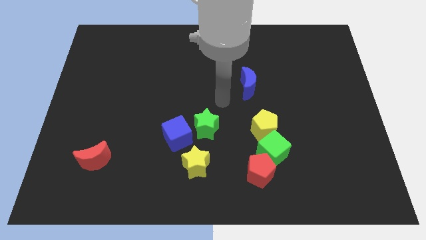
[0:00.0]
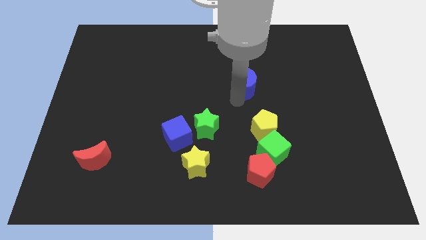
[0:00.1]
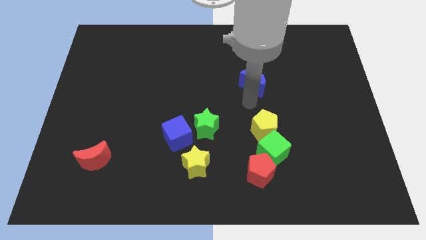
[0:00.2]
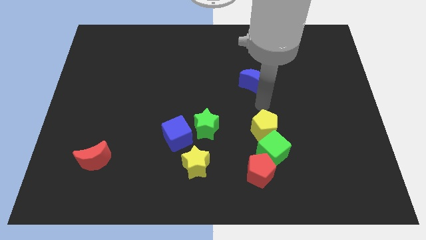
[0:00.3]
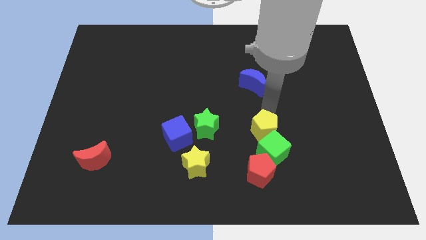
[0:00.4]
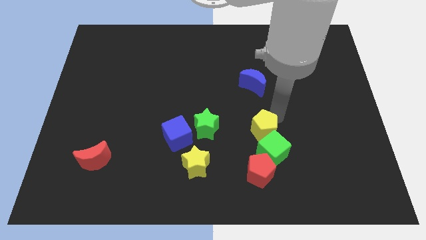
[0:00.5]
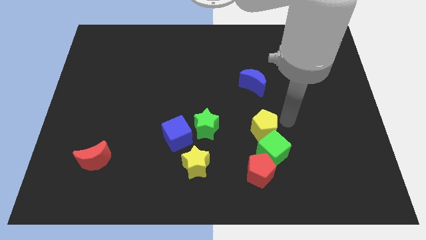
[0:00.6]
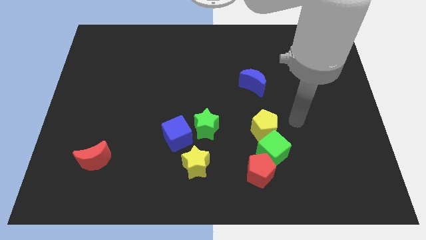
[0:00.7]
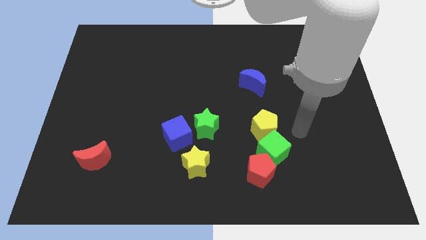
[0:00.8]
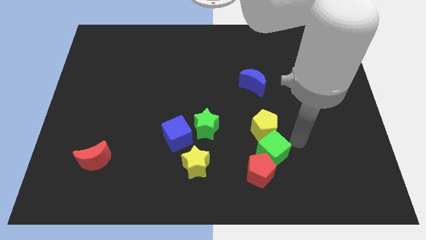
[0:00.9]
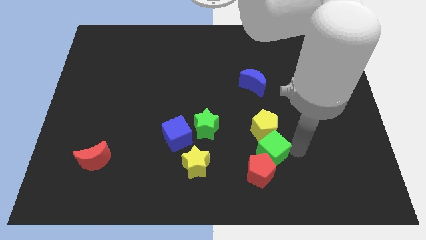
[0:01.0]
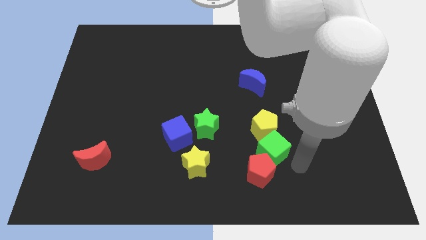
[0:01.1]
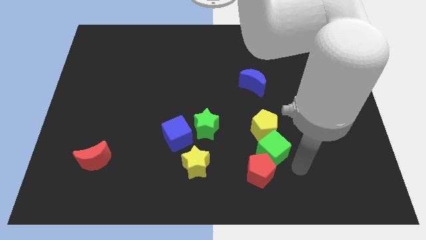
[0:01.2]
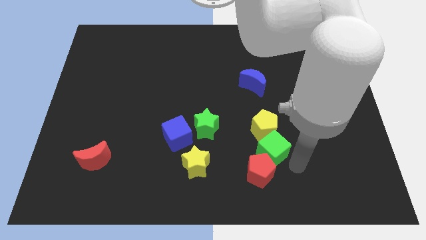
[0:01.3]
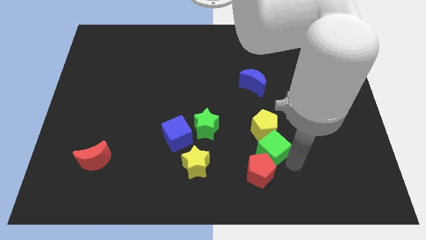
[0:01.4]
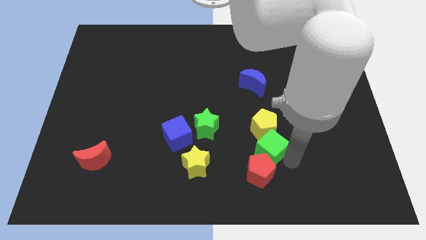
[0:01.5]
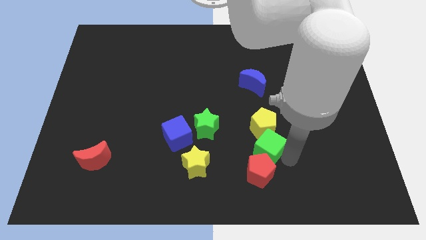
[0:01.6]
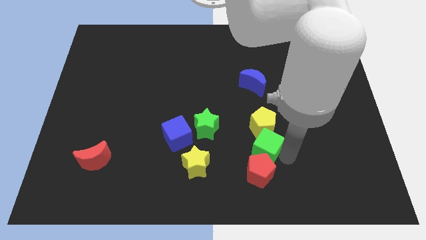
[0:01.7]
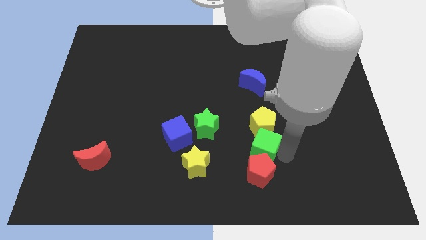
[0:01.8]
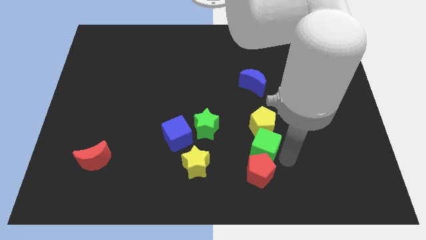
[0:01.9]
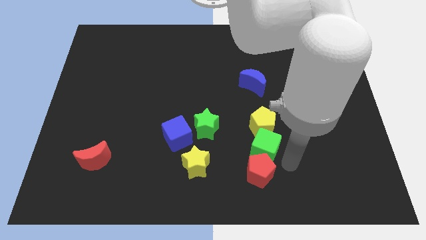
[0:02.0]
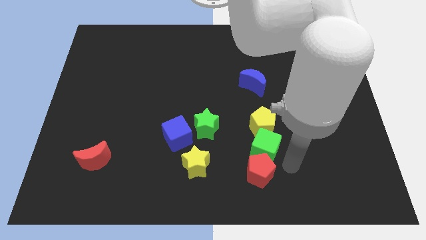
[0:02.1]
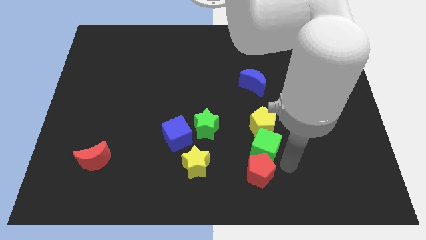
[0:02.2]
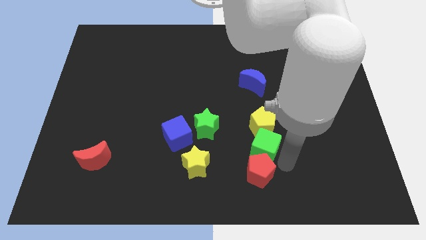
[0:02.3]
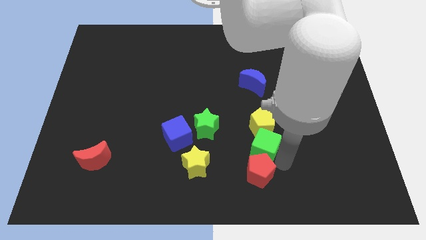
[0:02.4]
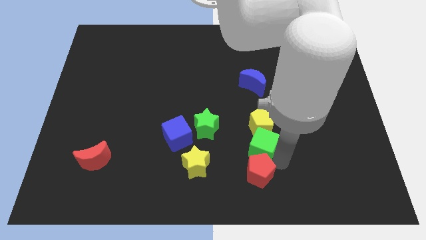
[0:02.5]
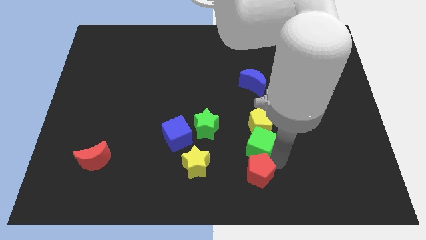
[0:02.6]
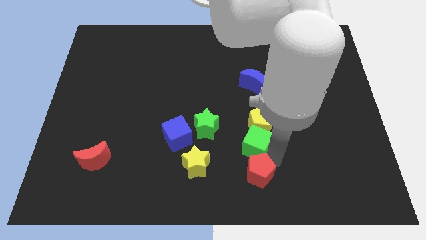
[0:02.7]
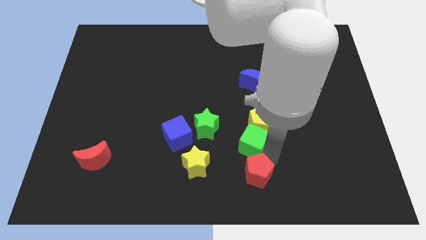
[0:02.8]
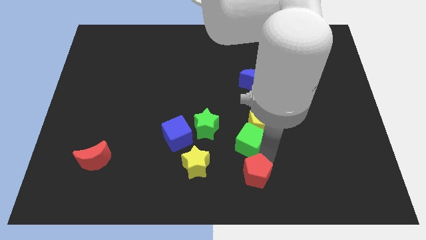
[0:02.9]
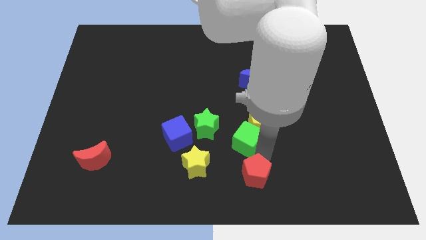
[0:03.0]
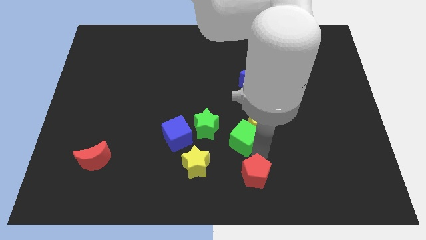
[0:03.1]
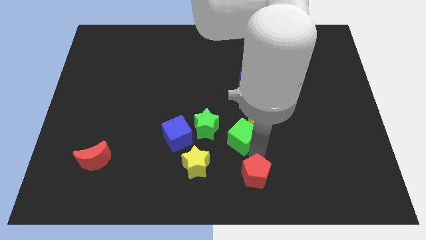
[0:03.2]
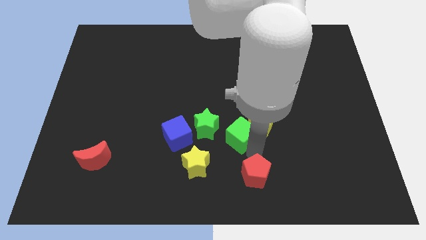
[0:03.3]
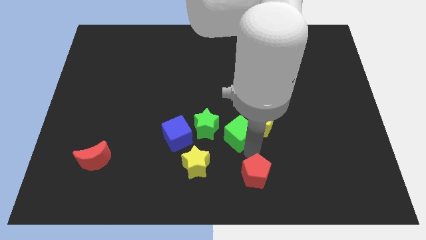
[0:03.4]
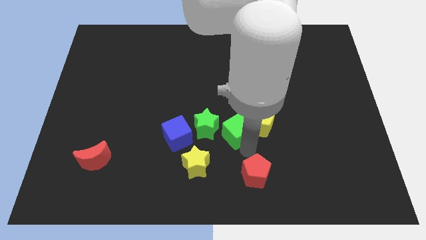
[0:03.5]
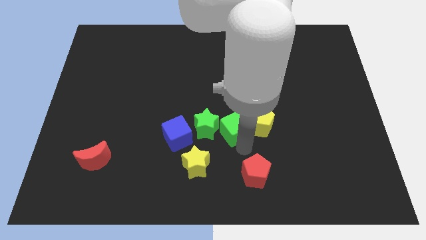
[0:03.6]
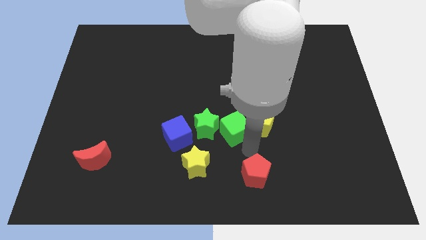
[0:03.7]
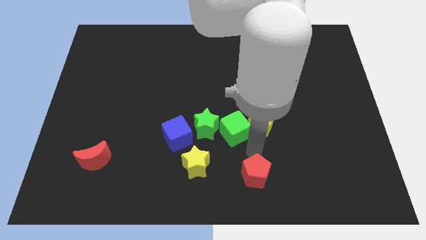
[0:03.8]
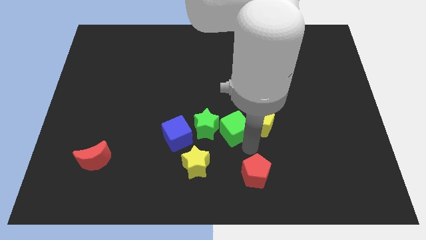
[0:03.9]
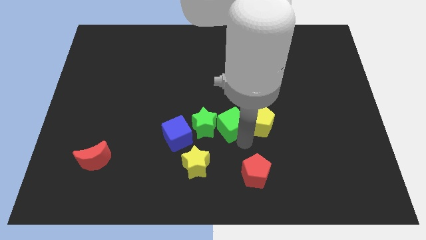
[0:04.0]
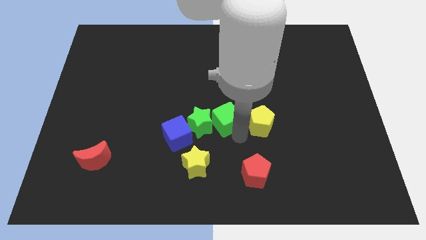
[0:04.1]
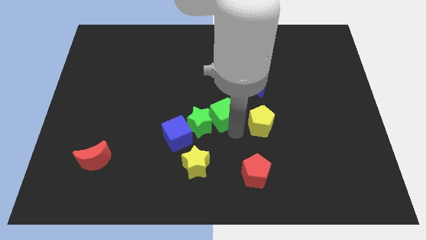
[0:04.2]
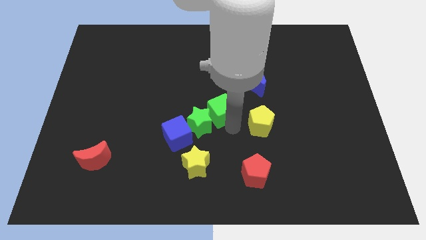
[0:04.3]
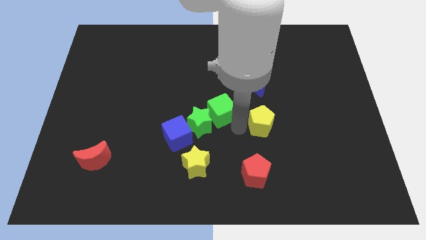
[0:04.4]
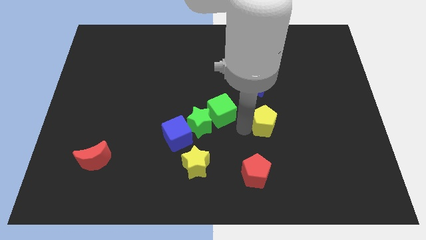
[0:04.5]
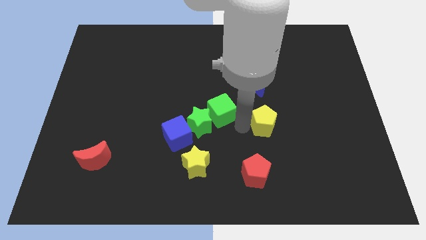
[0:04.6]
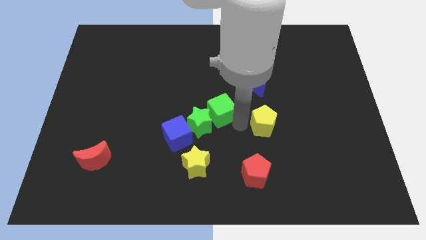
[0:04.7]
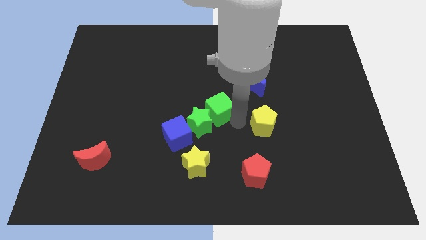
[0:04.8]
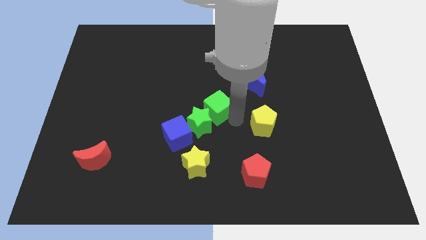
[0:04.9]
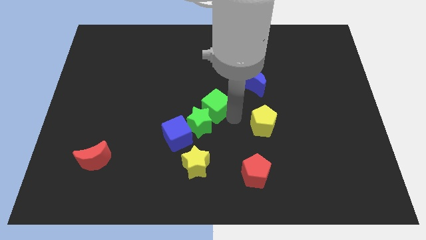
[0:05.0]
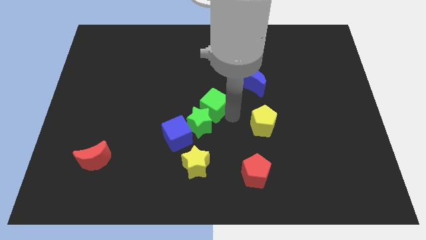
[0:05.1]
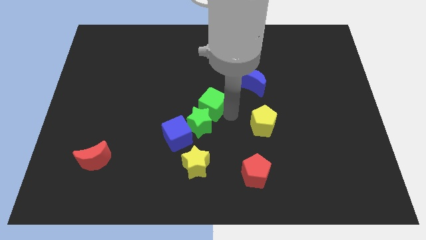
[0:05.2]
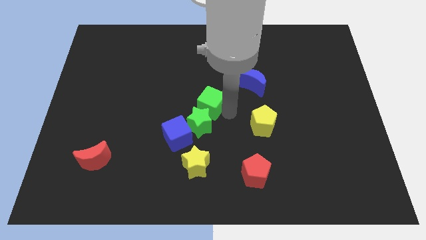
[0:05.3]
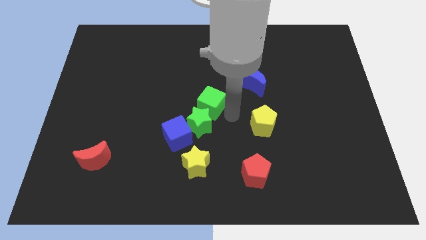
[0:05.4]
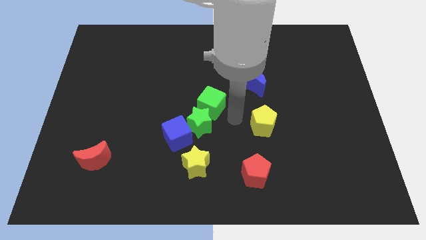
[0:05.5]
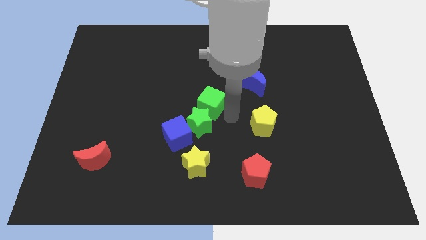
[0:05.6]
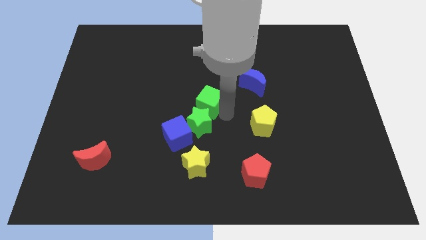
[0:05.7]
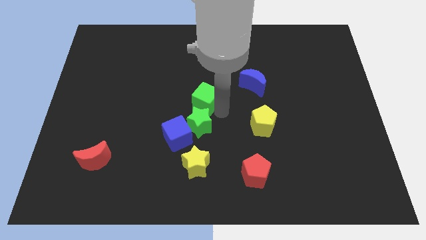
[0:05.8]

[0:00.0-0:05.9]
slide the green cube diagonally up and to the left

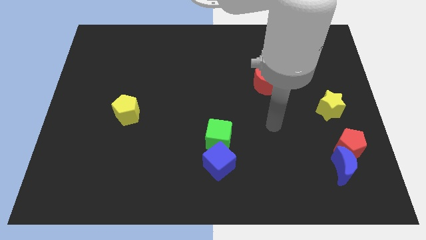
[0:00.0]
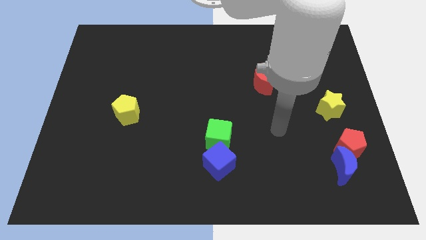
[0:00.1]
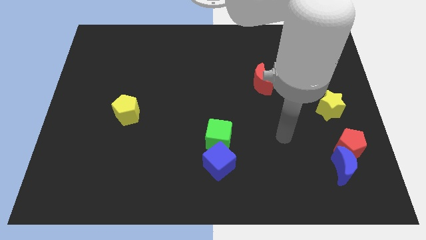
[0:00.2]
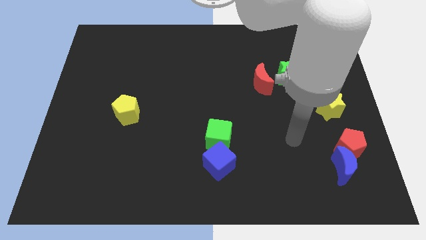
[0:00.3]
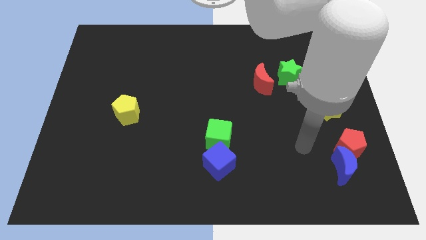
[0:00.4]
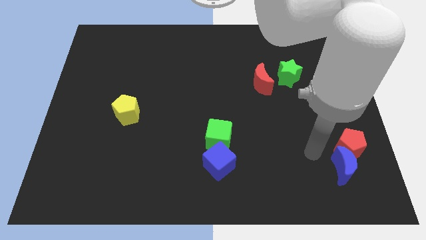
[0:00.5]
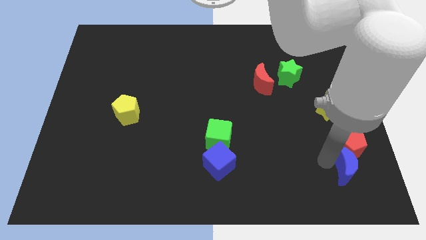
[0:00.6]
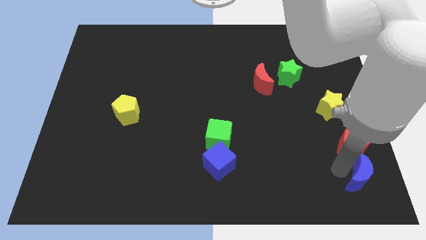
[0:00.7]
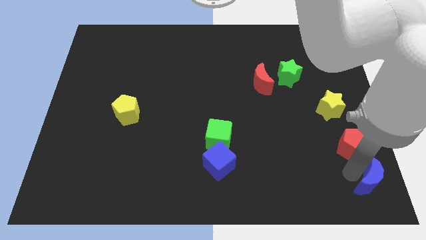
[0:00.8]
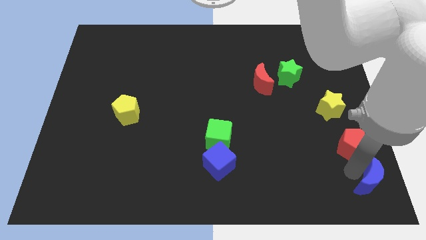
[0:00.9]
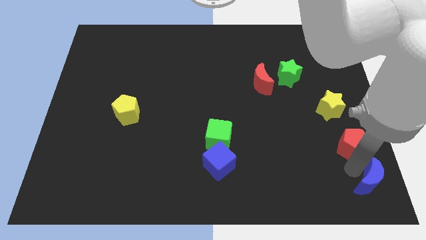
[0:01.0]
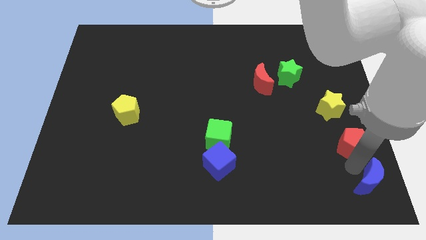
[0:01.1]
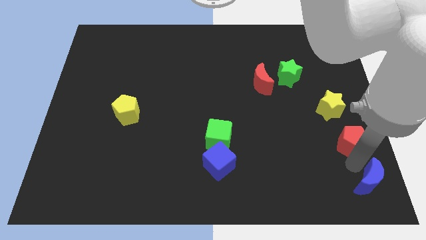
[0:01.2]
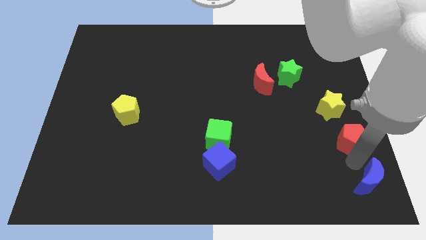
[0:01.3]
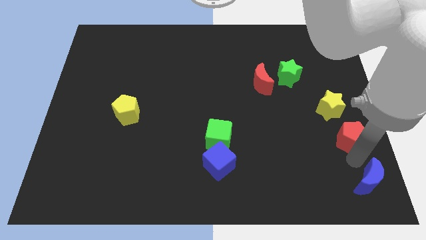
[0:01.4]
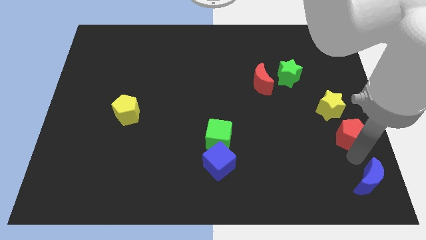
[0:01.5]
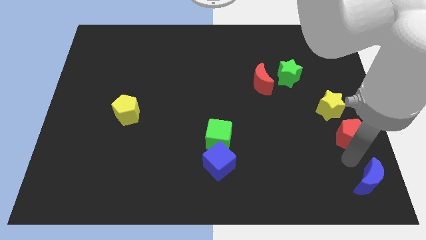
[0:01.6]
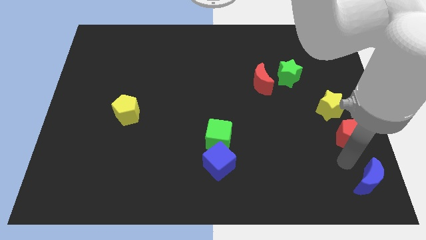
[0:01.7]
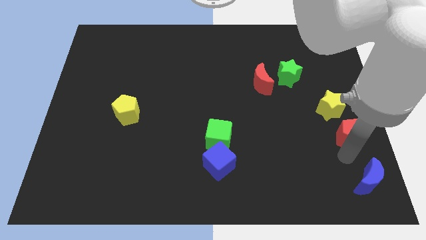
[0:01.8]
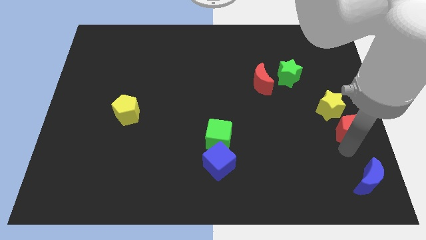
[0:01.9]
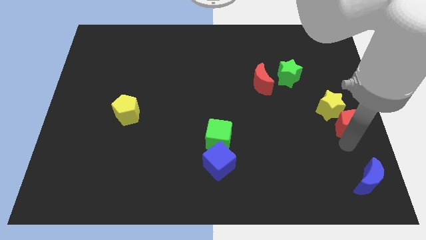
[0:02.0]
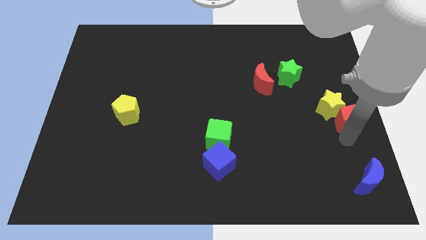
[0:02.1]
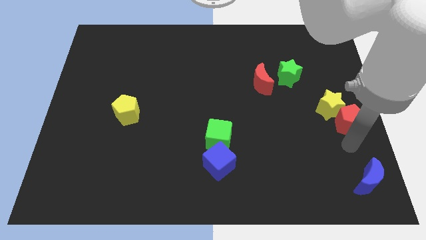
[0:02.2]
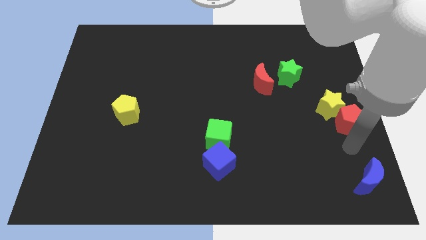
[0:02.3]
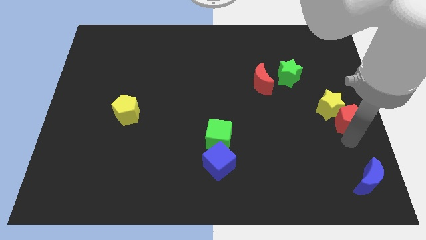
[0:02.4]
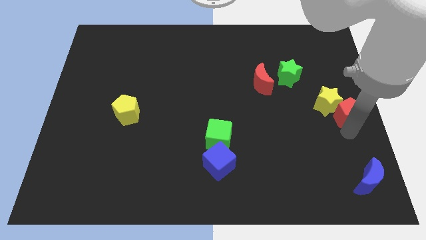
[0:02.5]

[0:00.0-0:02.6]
slide the red pentagon a little up
